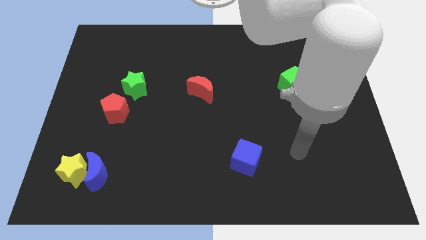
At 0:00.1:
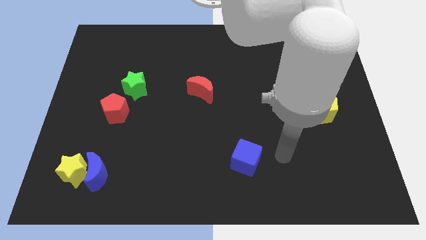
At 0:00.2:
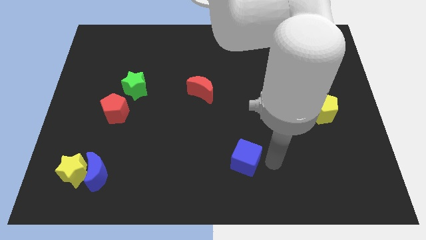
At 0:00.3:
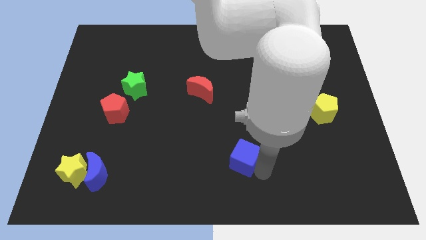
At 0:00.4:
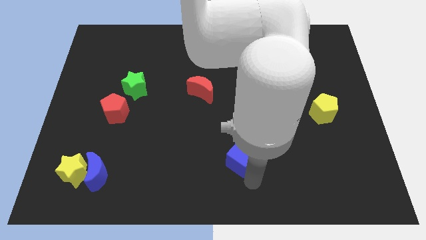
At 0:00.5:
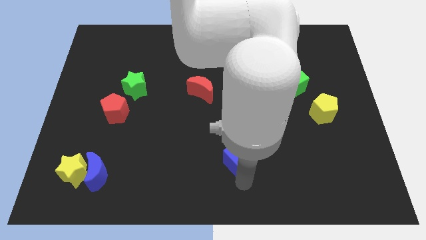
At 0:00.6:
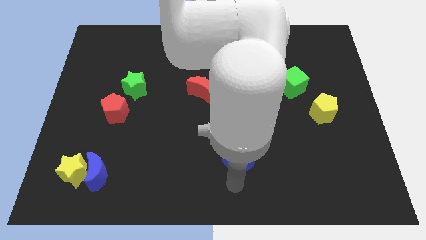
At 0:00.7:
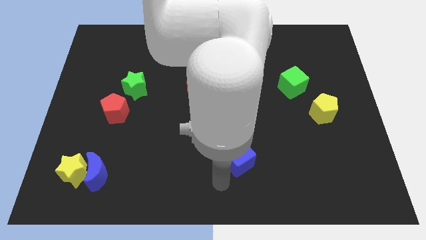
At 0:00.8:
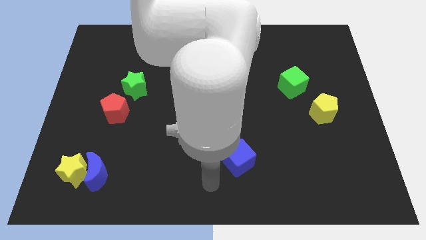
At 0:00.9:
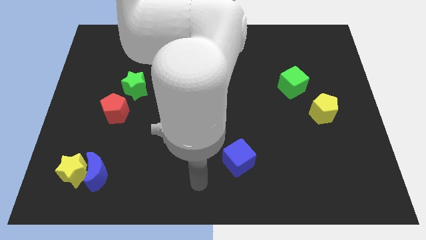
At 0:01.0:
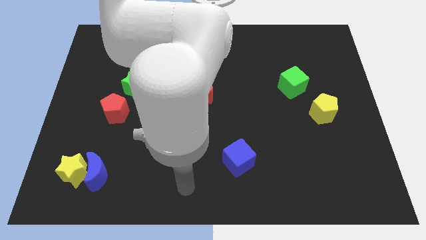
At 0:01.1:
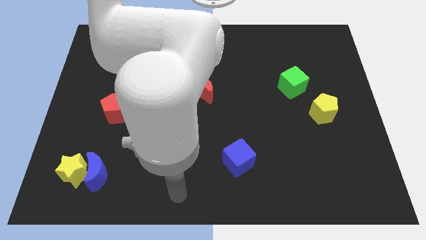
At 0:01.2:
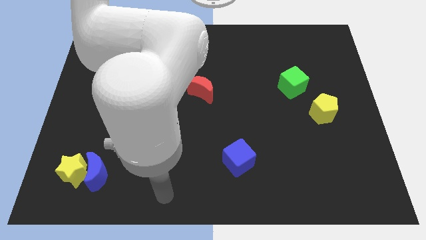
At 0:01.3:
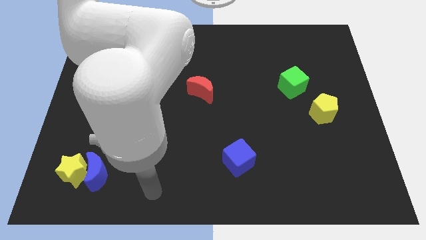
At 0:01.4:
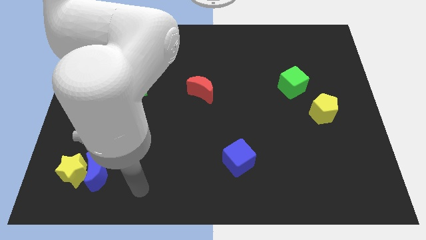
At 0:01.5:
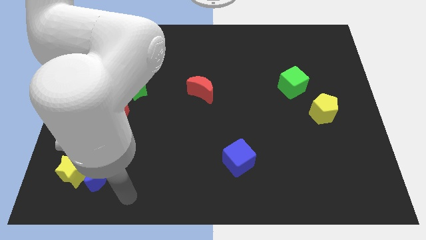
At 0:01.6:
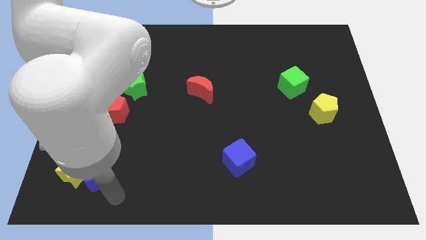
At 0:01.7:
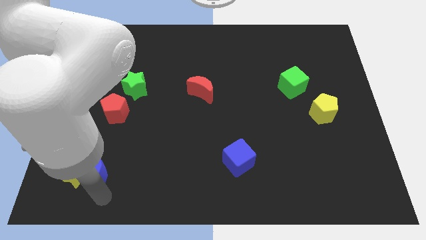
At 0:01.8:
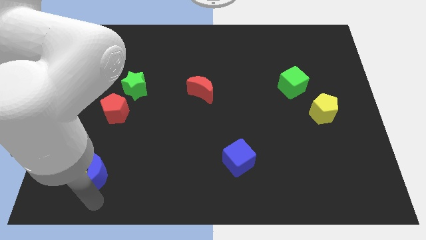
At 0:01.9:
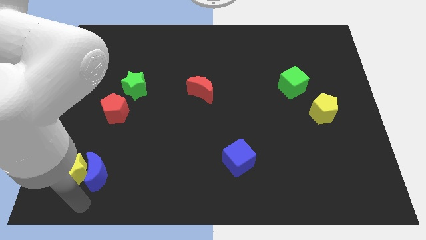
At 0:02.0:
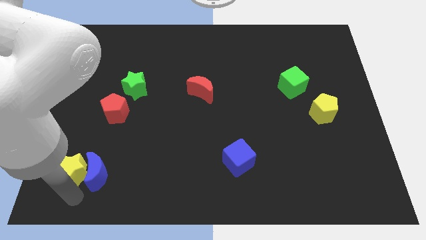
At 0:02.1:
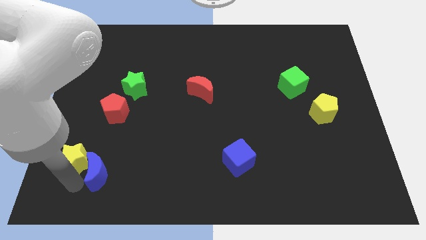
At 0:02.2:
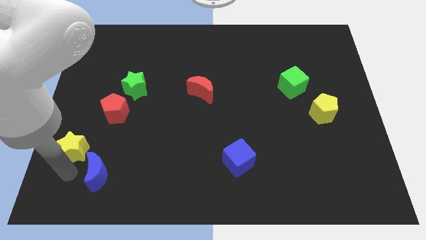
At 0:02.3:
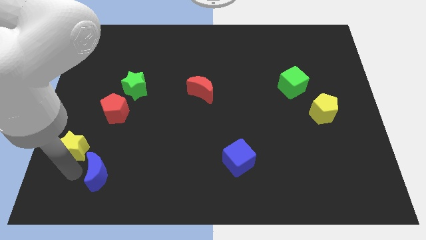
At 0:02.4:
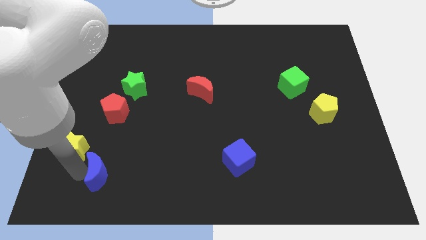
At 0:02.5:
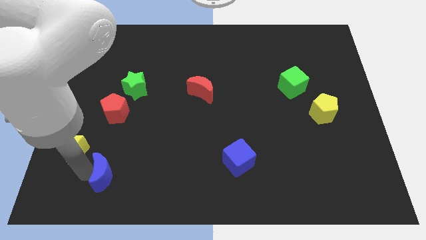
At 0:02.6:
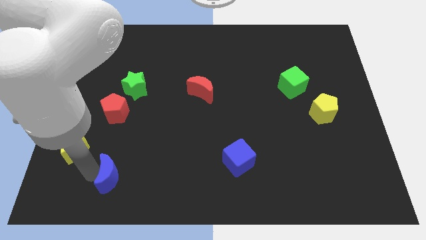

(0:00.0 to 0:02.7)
move the blue moon away from the yellow star

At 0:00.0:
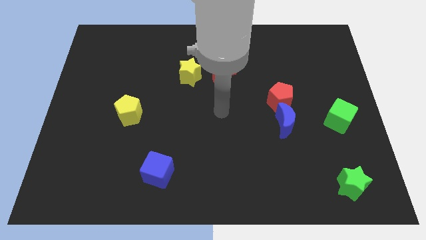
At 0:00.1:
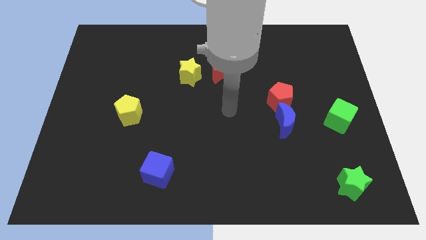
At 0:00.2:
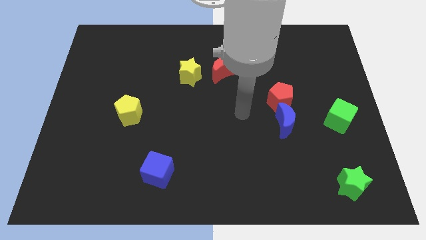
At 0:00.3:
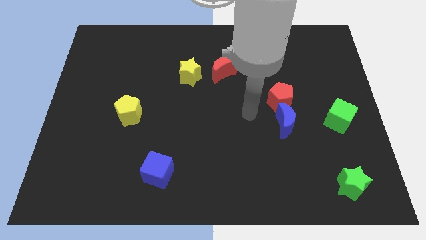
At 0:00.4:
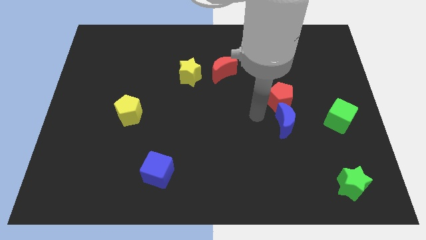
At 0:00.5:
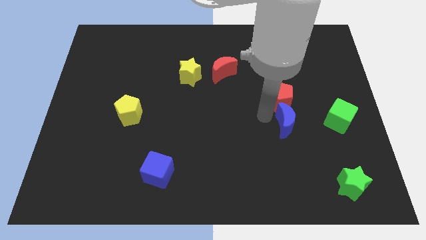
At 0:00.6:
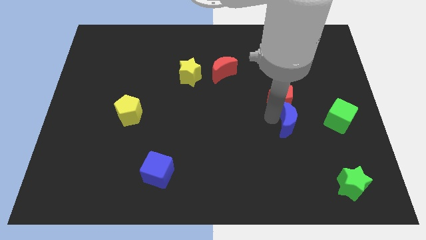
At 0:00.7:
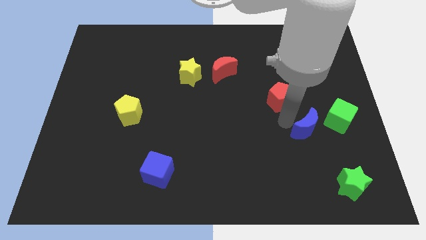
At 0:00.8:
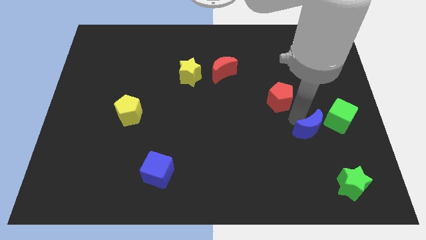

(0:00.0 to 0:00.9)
pull the red pentagon apart from the blue moon

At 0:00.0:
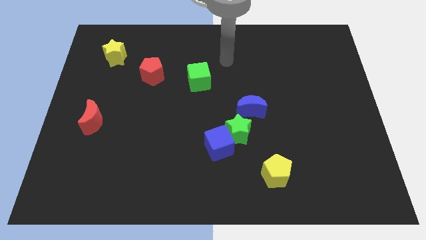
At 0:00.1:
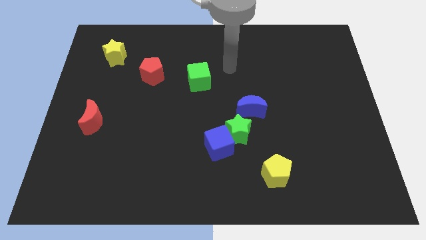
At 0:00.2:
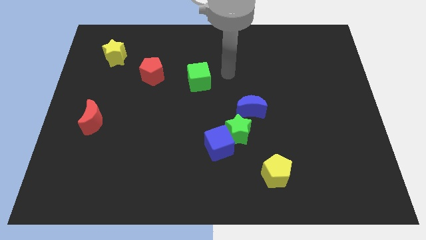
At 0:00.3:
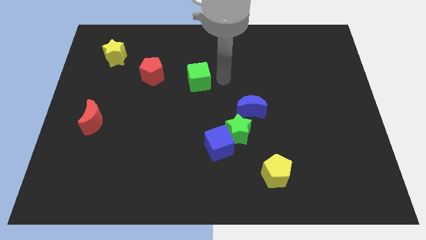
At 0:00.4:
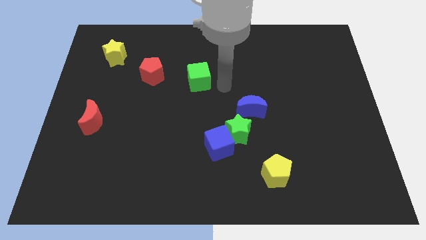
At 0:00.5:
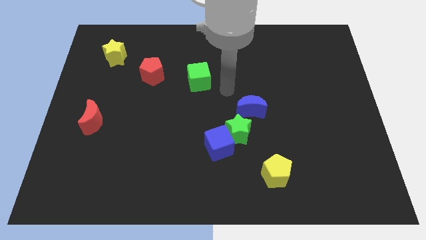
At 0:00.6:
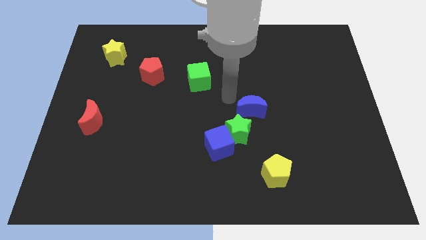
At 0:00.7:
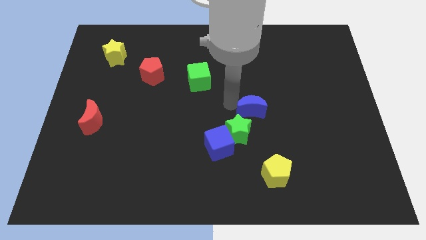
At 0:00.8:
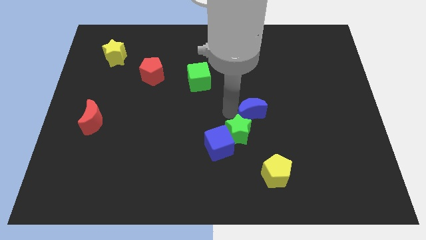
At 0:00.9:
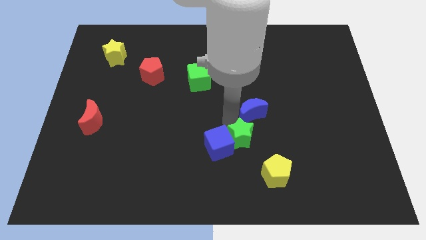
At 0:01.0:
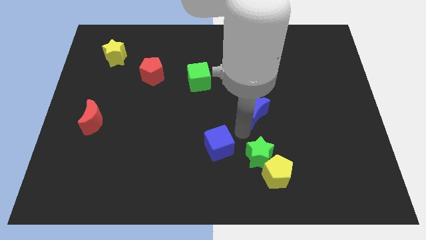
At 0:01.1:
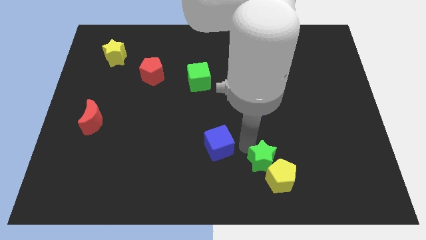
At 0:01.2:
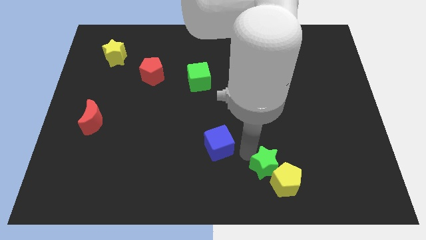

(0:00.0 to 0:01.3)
separate the blue cube from the green star

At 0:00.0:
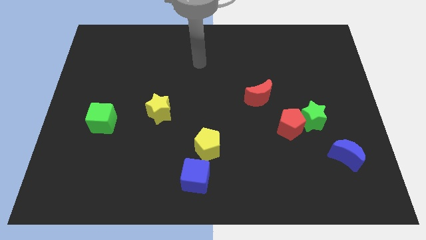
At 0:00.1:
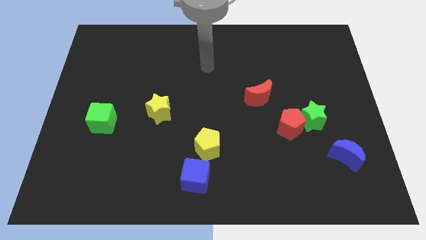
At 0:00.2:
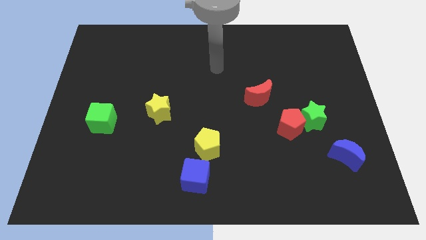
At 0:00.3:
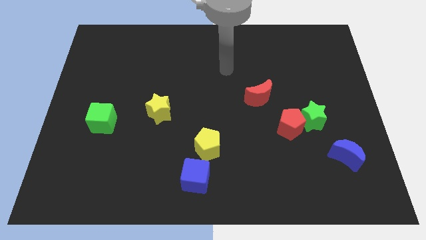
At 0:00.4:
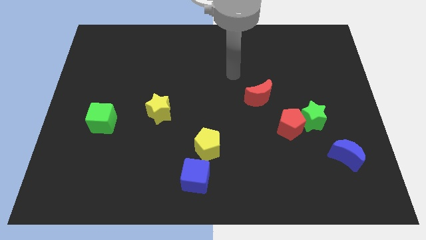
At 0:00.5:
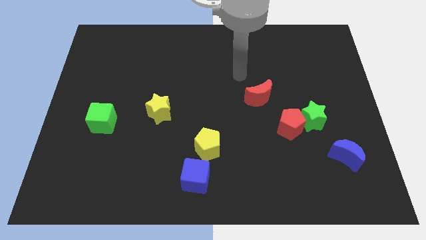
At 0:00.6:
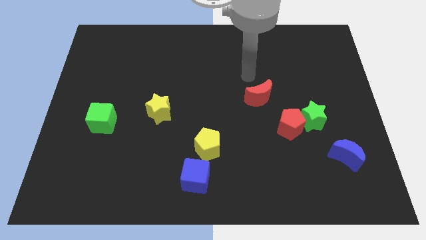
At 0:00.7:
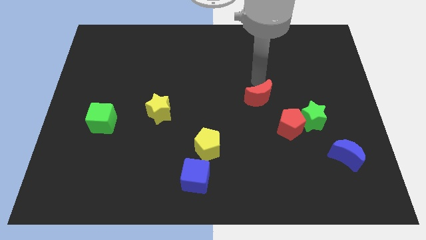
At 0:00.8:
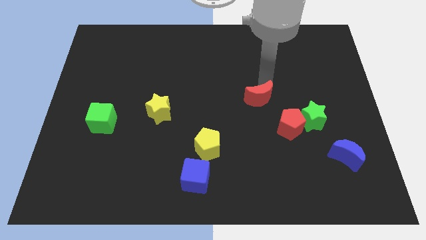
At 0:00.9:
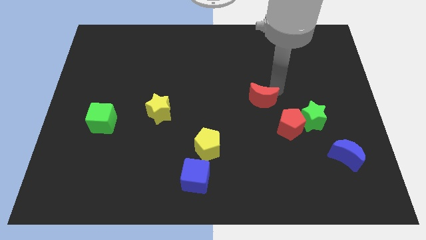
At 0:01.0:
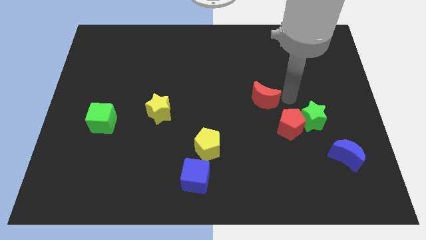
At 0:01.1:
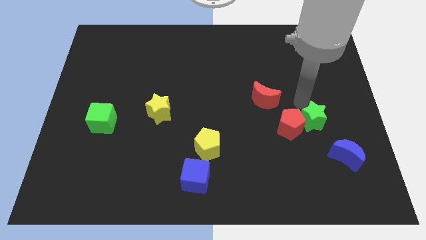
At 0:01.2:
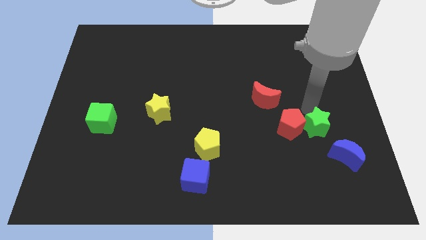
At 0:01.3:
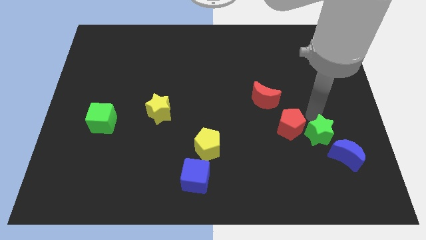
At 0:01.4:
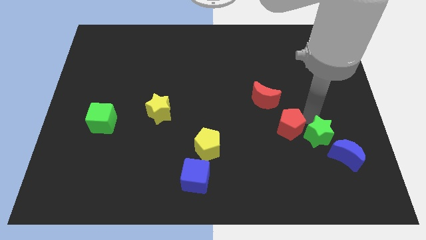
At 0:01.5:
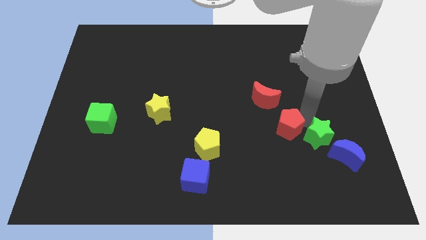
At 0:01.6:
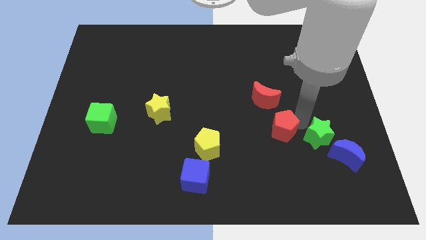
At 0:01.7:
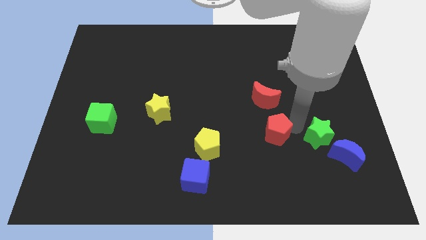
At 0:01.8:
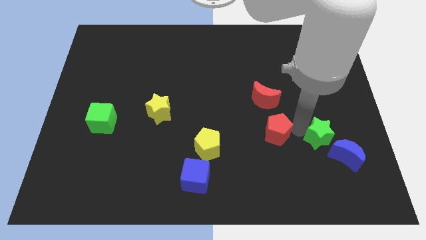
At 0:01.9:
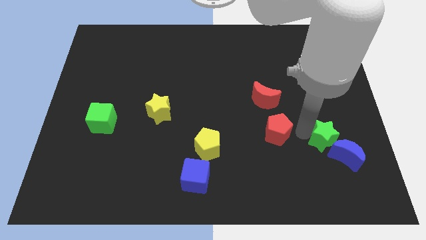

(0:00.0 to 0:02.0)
pull the red pentagon apart from the green star

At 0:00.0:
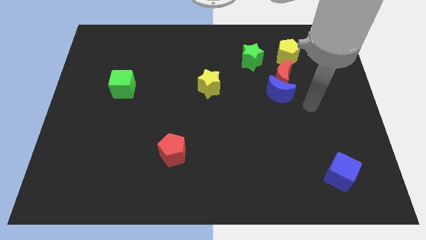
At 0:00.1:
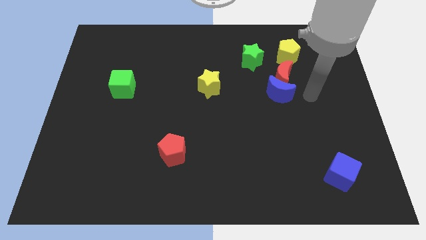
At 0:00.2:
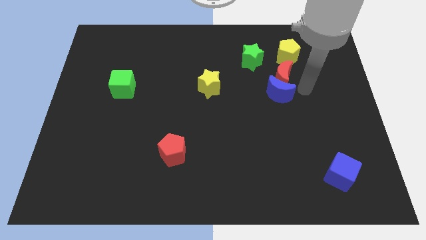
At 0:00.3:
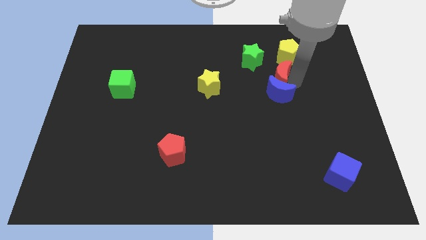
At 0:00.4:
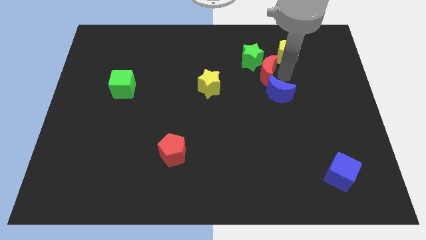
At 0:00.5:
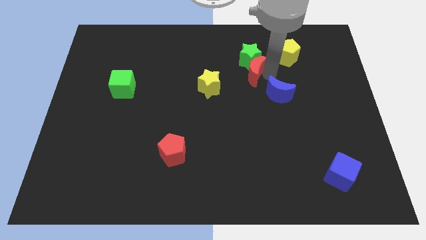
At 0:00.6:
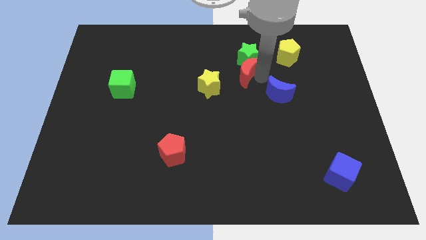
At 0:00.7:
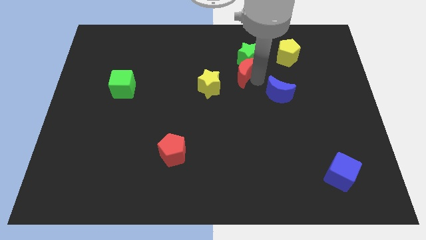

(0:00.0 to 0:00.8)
pull the blue moon apart from the red moon

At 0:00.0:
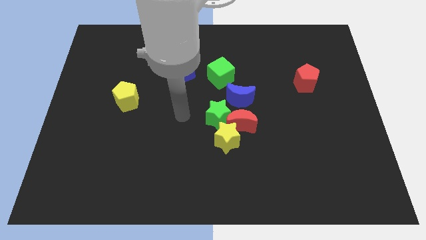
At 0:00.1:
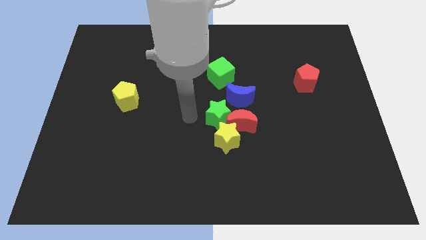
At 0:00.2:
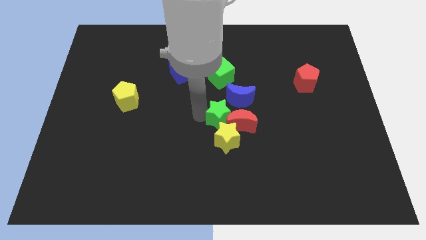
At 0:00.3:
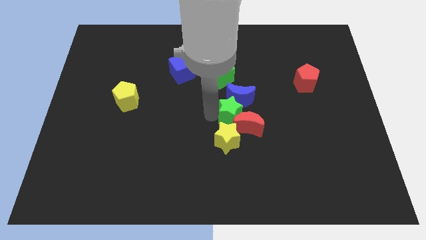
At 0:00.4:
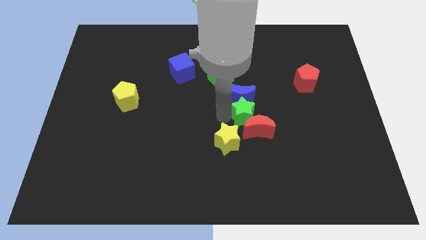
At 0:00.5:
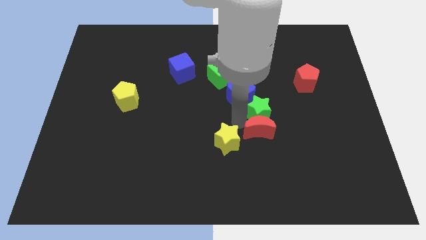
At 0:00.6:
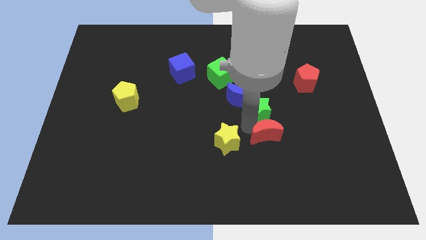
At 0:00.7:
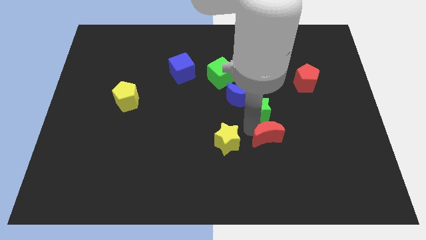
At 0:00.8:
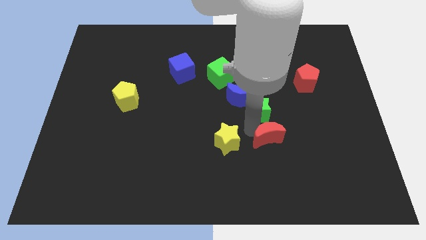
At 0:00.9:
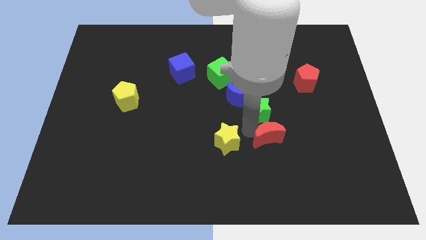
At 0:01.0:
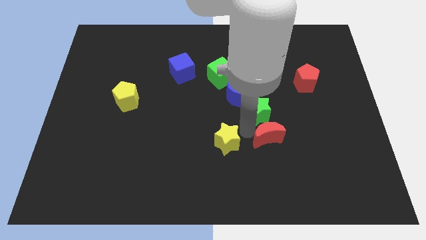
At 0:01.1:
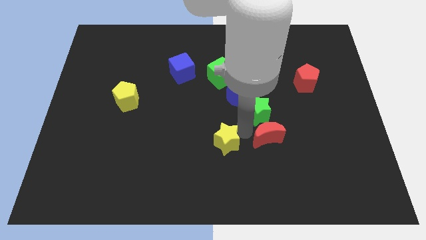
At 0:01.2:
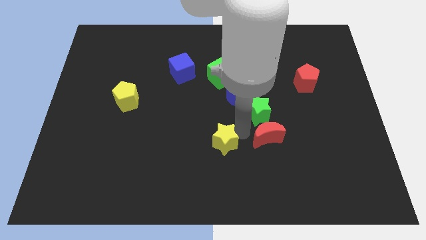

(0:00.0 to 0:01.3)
move the yellow star away from the red moon and green star

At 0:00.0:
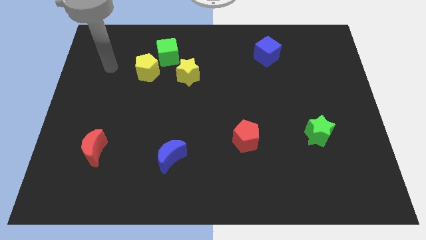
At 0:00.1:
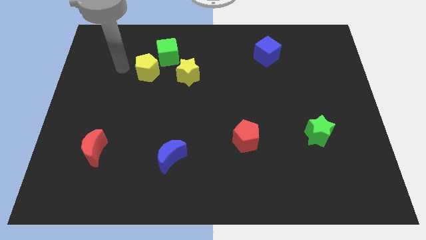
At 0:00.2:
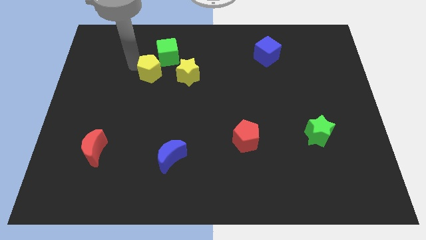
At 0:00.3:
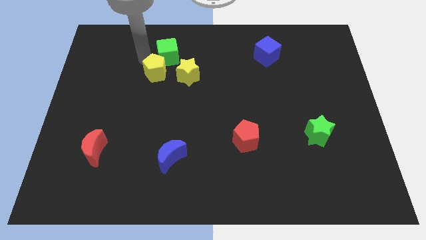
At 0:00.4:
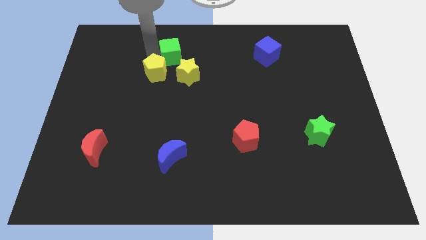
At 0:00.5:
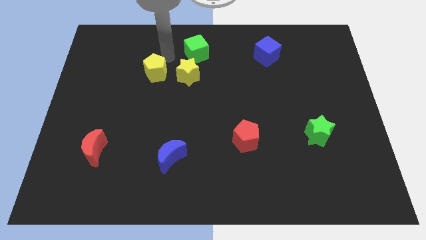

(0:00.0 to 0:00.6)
pull the yellow pentagon apart from the green cube
